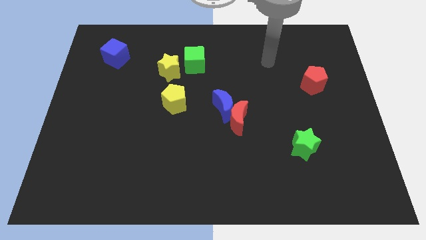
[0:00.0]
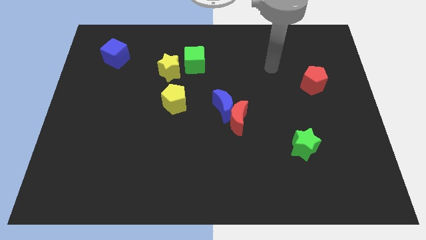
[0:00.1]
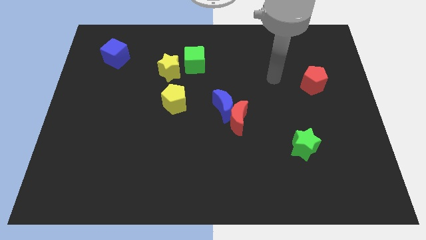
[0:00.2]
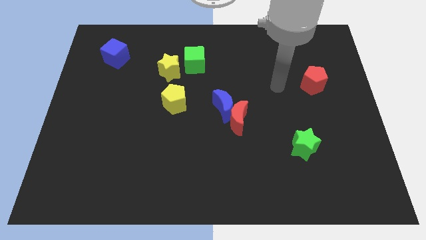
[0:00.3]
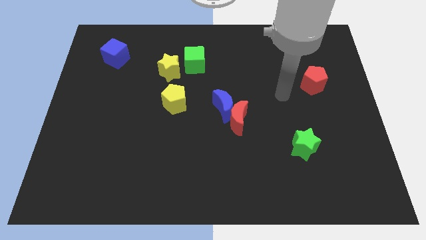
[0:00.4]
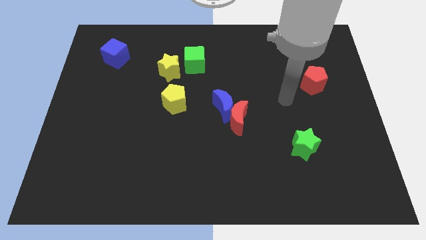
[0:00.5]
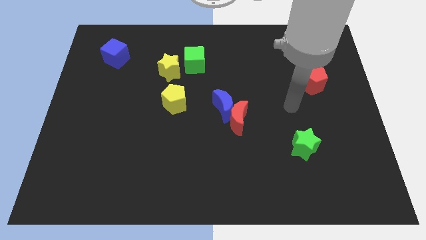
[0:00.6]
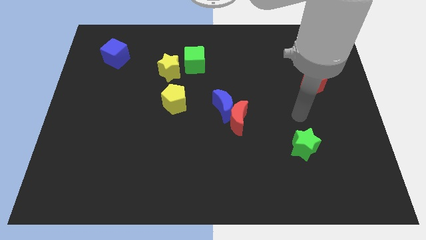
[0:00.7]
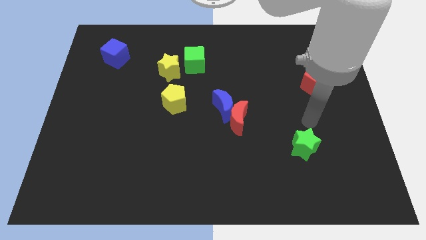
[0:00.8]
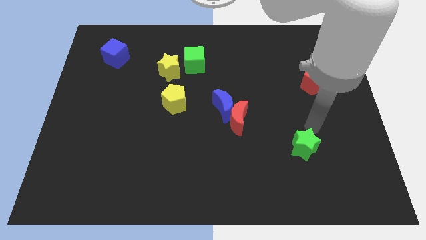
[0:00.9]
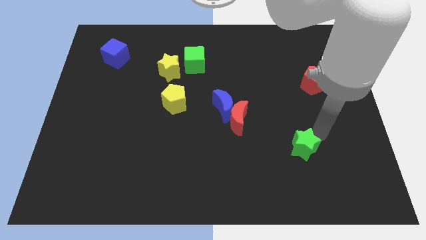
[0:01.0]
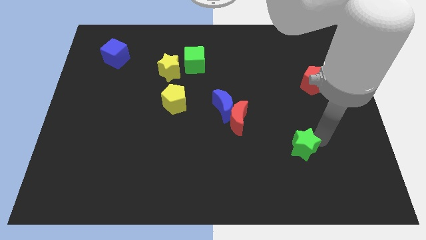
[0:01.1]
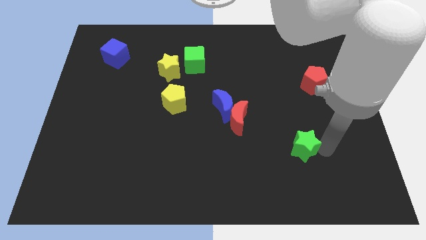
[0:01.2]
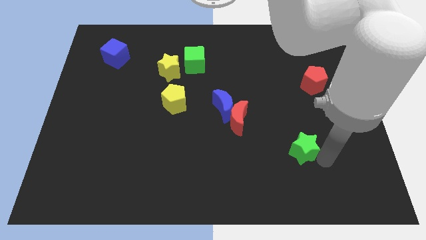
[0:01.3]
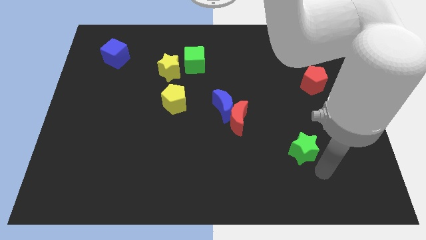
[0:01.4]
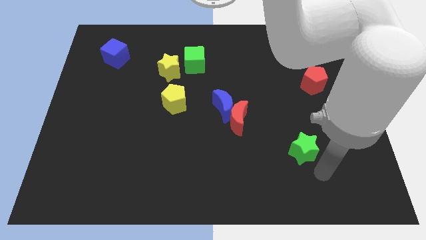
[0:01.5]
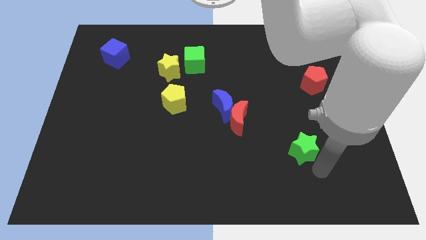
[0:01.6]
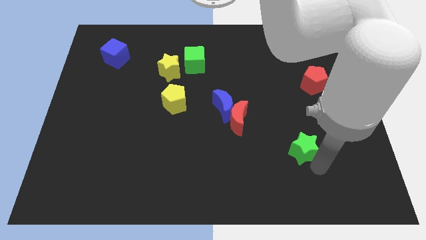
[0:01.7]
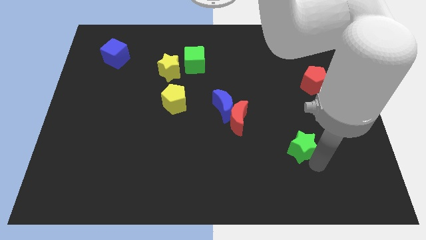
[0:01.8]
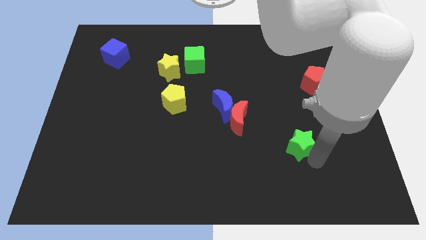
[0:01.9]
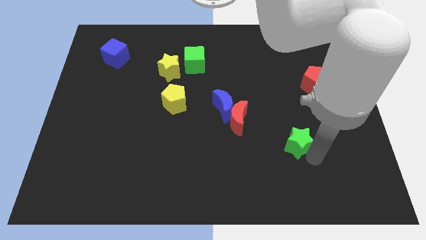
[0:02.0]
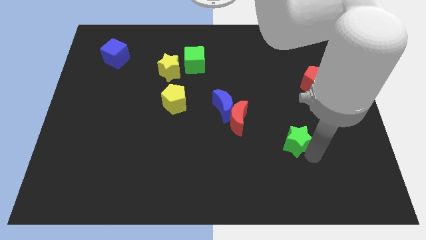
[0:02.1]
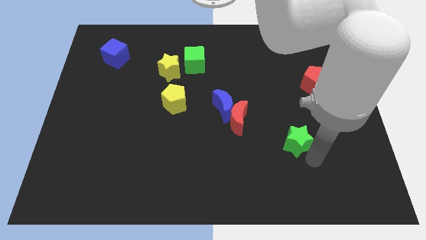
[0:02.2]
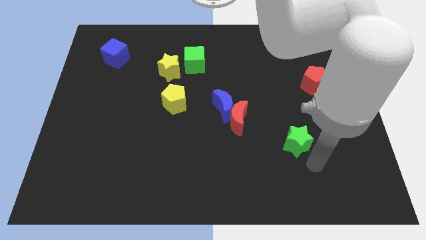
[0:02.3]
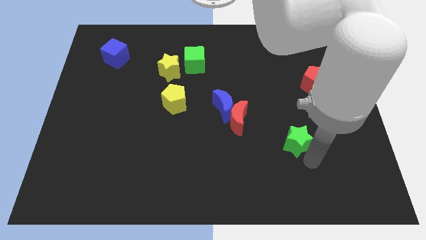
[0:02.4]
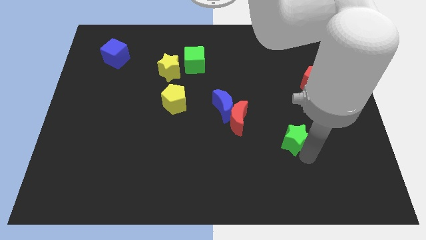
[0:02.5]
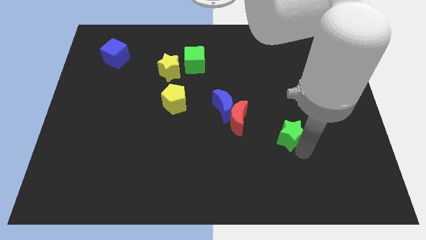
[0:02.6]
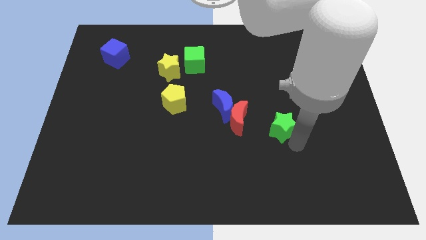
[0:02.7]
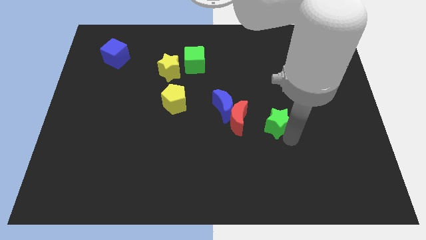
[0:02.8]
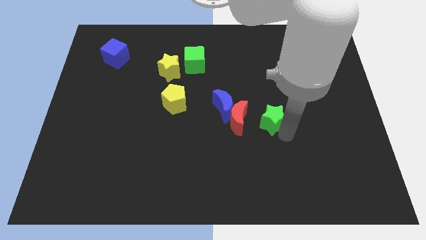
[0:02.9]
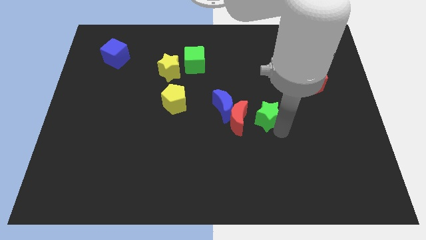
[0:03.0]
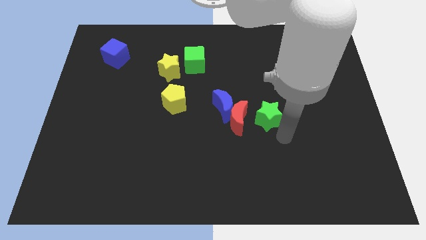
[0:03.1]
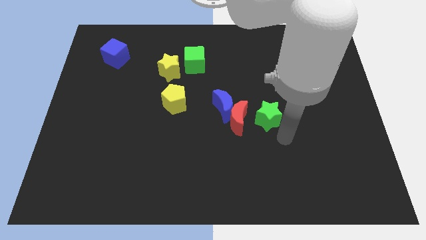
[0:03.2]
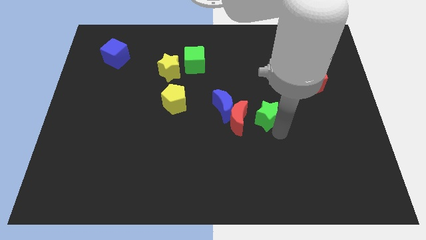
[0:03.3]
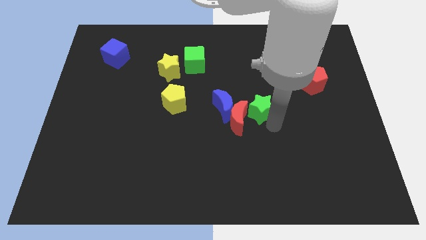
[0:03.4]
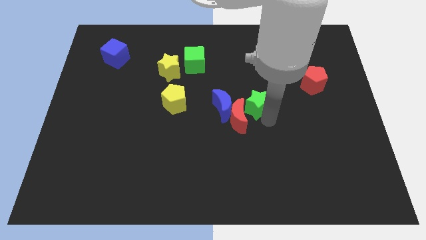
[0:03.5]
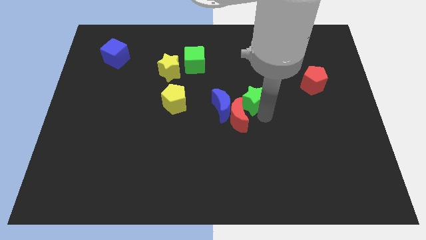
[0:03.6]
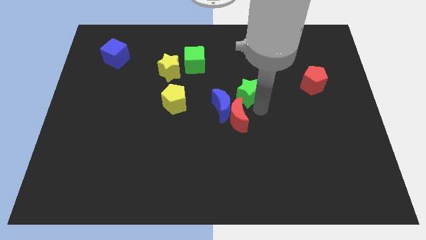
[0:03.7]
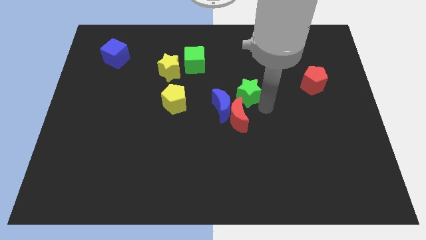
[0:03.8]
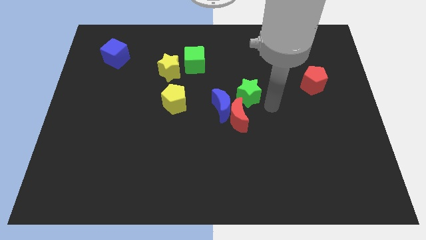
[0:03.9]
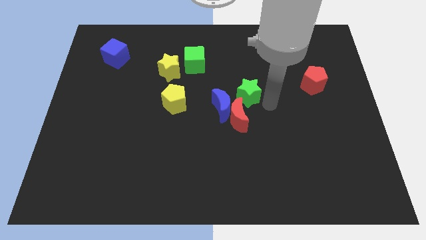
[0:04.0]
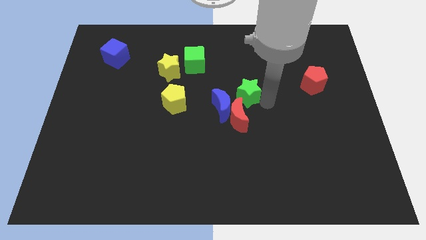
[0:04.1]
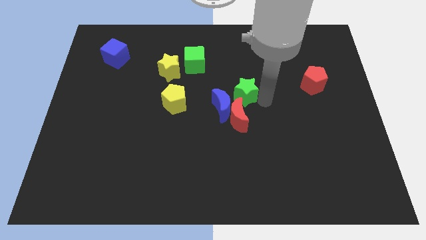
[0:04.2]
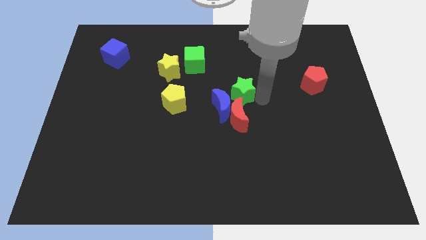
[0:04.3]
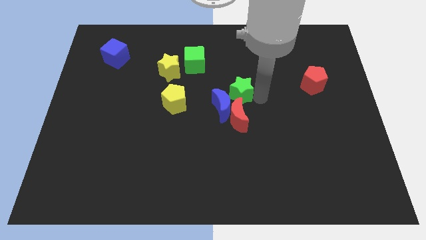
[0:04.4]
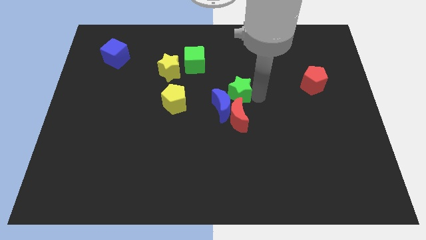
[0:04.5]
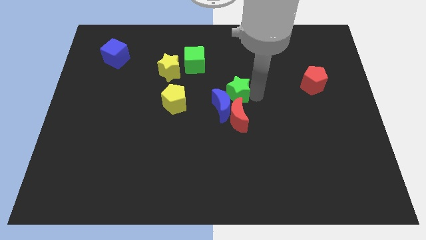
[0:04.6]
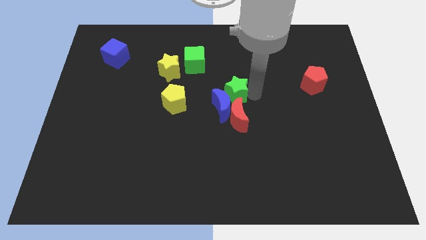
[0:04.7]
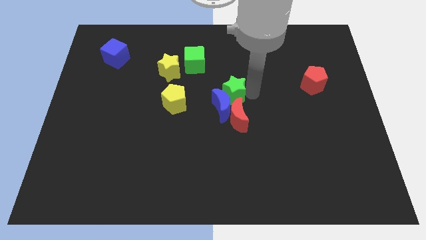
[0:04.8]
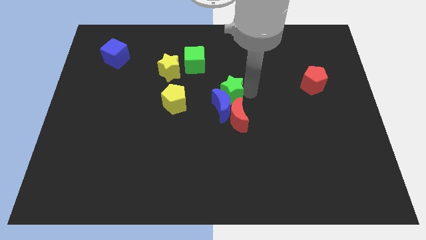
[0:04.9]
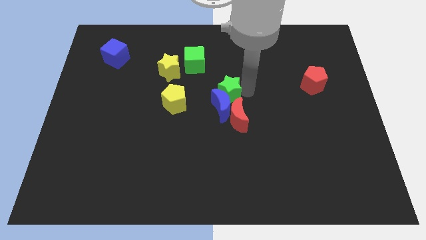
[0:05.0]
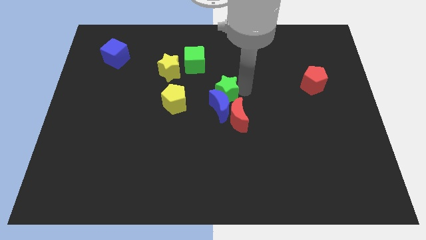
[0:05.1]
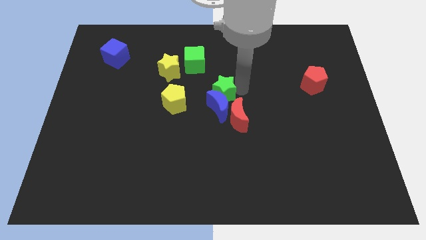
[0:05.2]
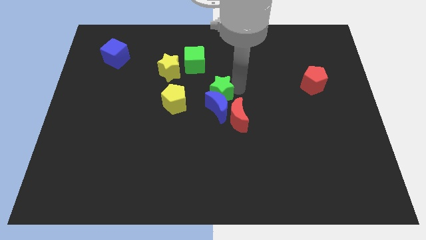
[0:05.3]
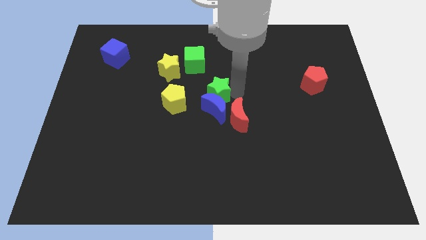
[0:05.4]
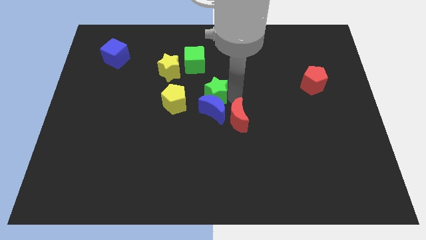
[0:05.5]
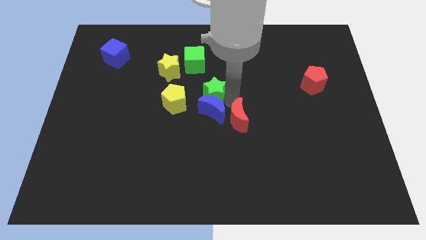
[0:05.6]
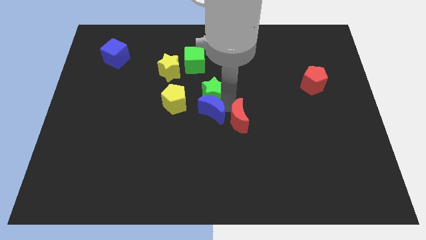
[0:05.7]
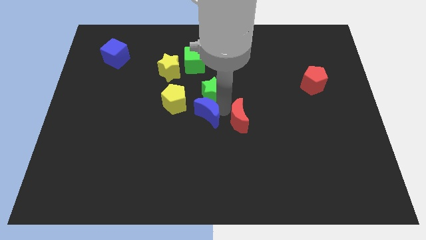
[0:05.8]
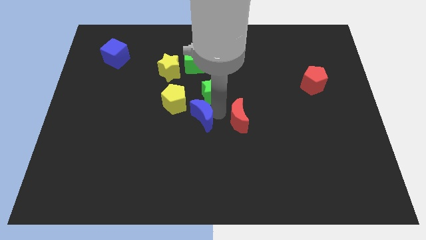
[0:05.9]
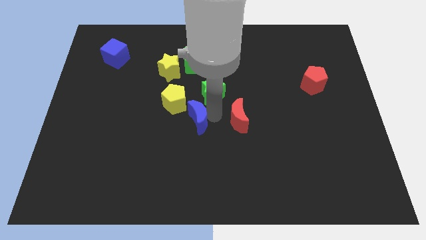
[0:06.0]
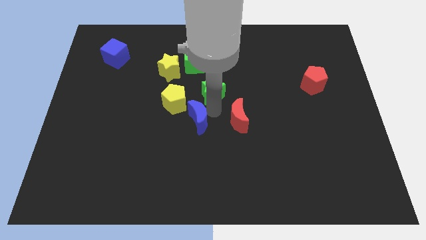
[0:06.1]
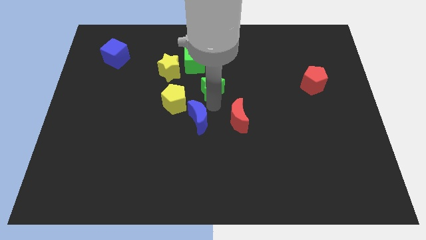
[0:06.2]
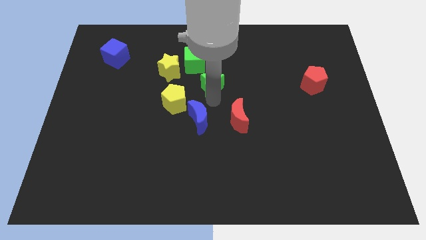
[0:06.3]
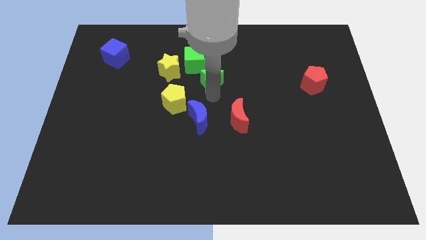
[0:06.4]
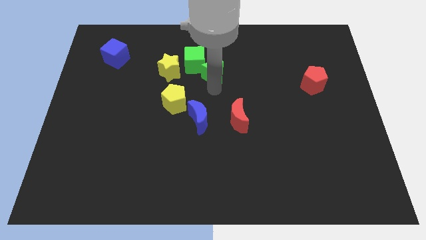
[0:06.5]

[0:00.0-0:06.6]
slide the green star close to the green cube
